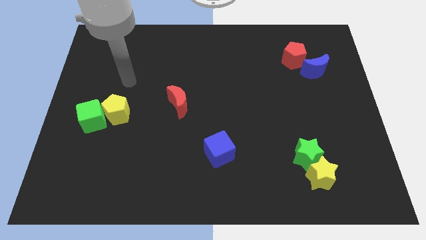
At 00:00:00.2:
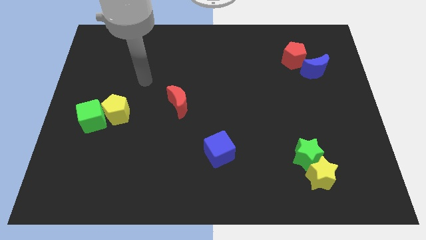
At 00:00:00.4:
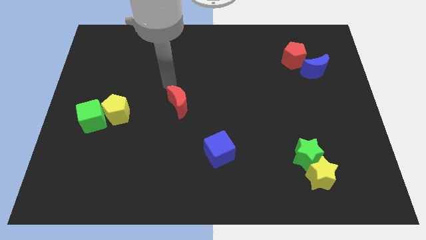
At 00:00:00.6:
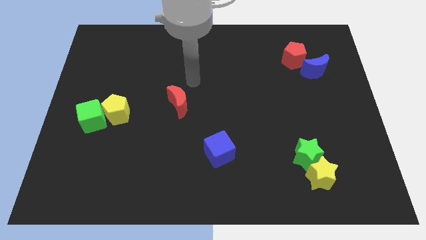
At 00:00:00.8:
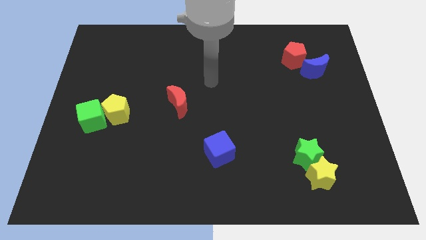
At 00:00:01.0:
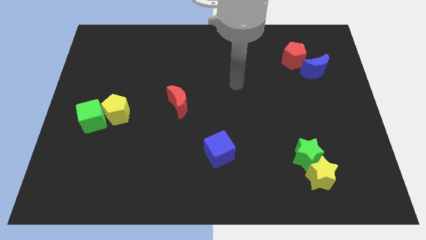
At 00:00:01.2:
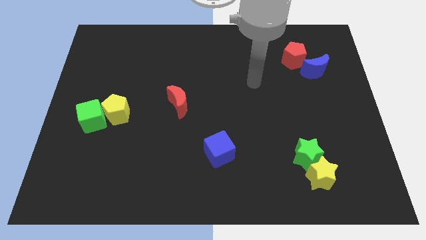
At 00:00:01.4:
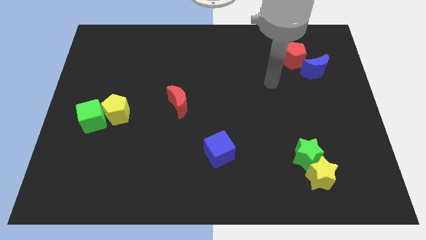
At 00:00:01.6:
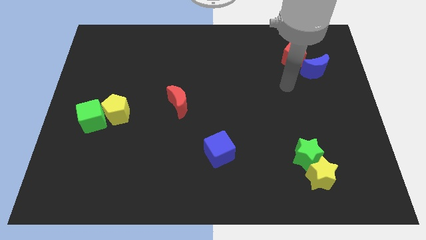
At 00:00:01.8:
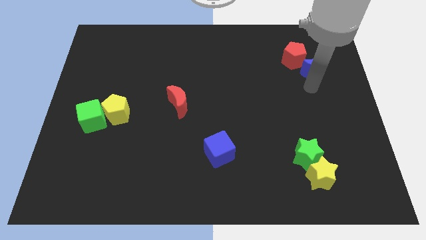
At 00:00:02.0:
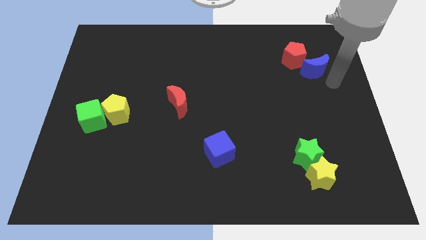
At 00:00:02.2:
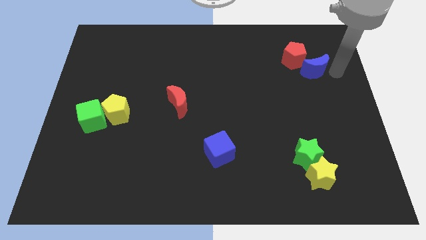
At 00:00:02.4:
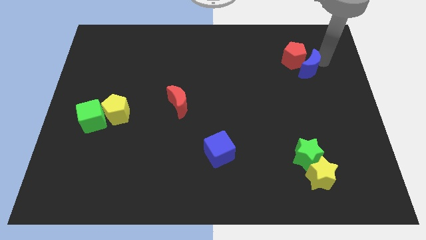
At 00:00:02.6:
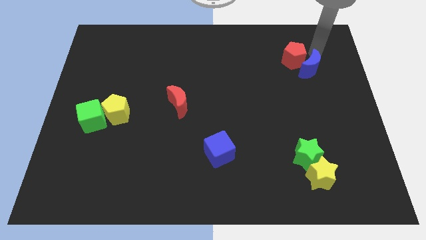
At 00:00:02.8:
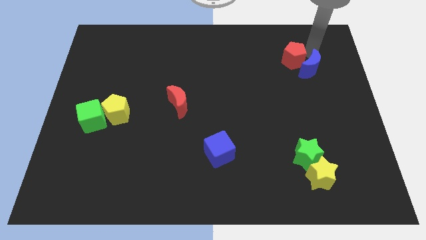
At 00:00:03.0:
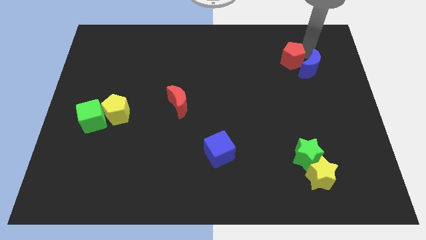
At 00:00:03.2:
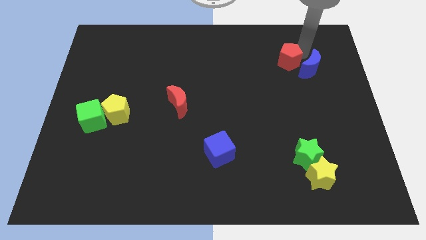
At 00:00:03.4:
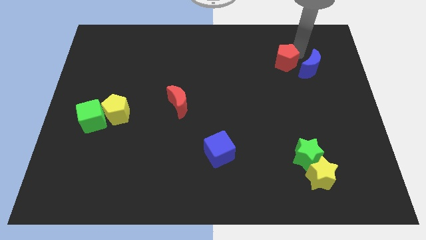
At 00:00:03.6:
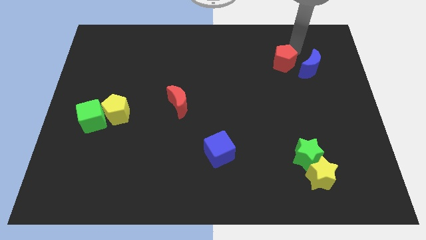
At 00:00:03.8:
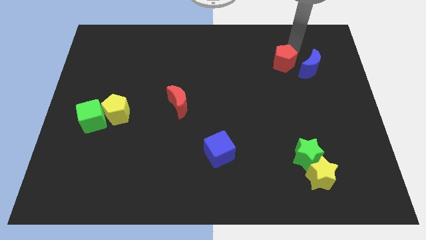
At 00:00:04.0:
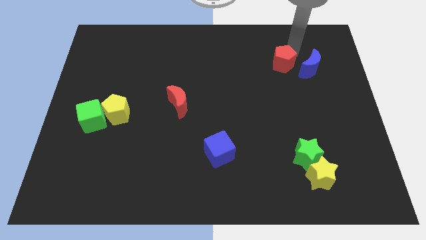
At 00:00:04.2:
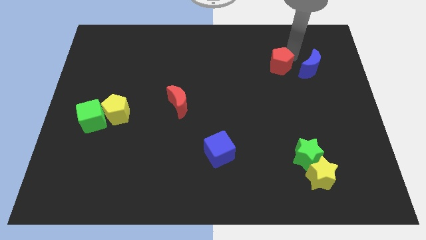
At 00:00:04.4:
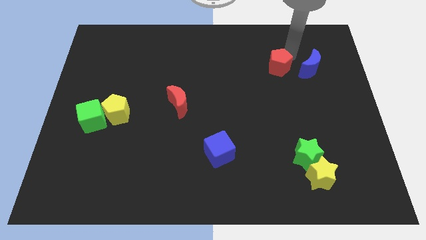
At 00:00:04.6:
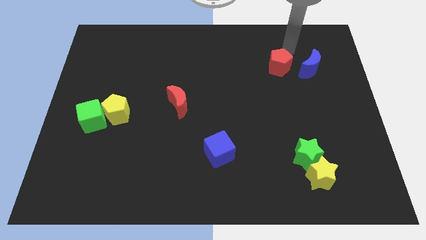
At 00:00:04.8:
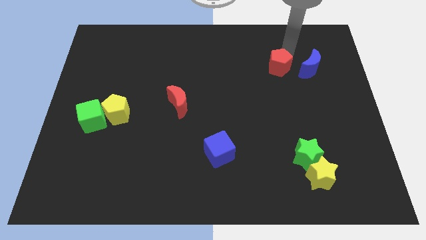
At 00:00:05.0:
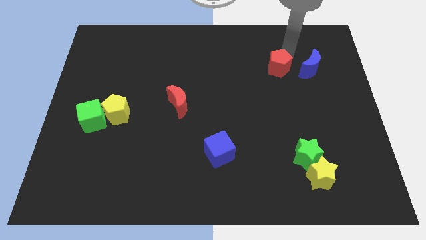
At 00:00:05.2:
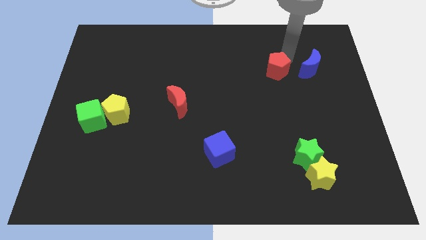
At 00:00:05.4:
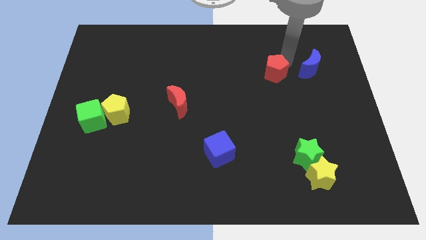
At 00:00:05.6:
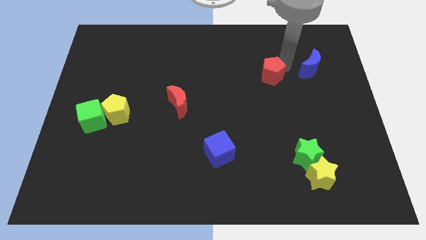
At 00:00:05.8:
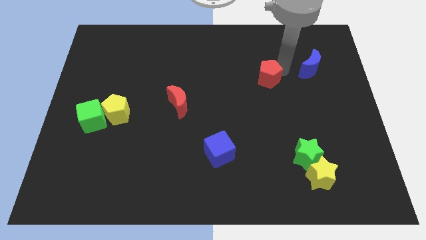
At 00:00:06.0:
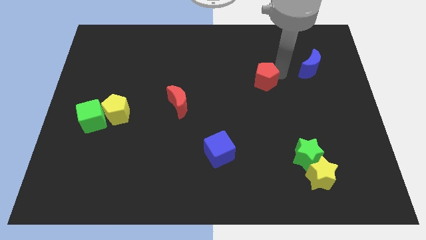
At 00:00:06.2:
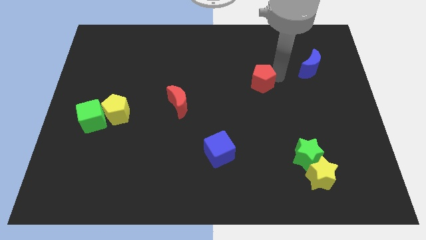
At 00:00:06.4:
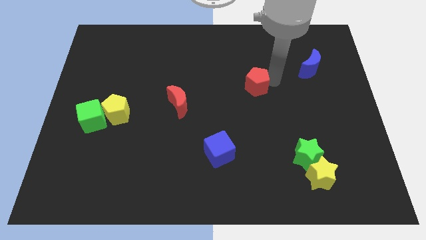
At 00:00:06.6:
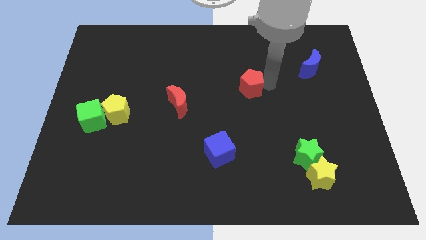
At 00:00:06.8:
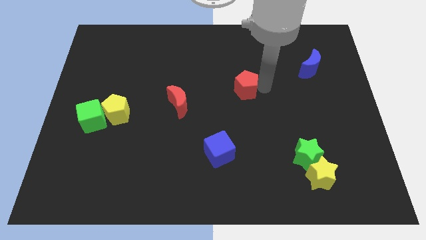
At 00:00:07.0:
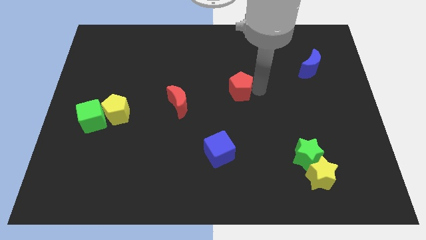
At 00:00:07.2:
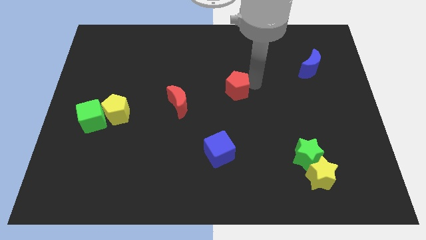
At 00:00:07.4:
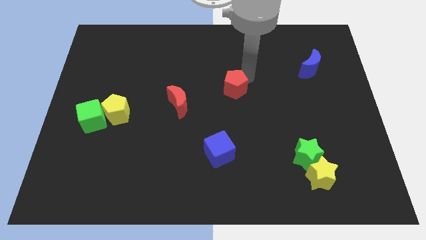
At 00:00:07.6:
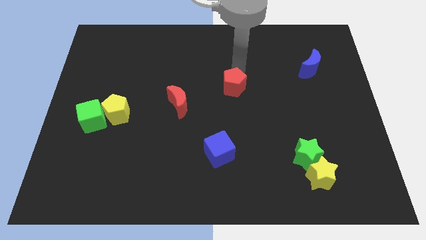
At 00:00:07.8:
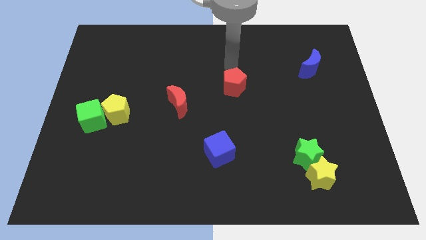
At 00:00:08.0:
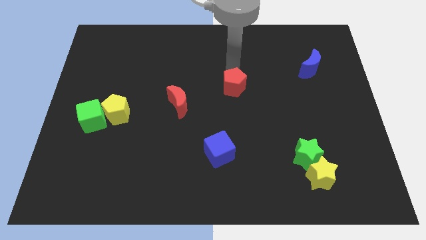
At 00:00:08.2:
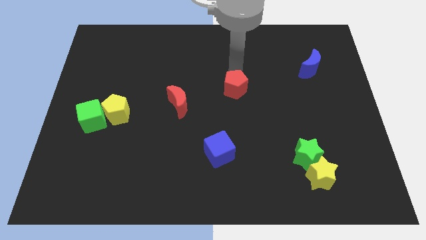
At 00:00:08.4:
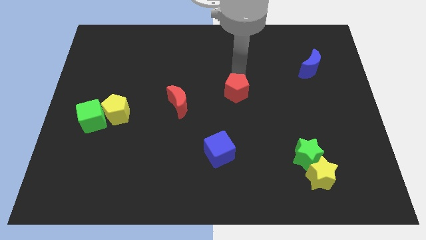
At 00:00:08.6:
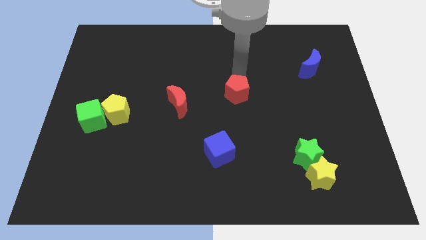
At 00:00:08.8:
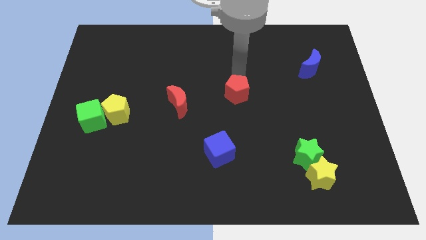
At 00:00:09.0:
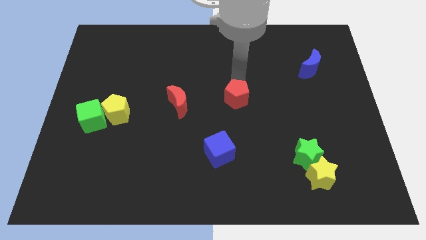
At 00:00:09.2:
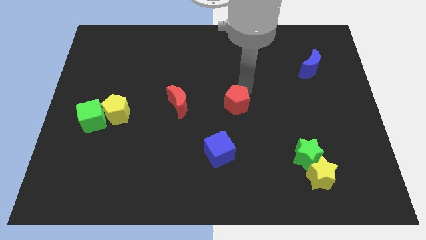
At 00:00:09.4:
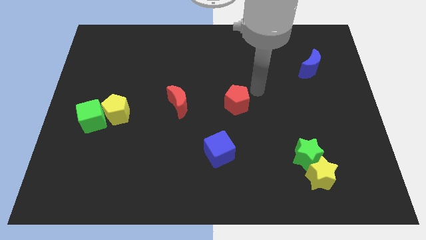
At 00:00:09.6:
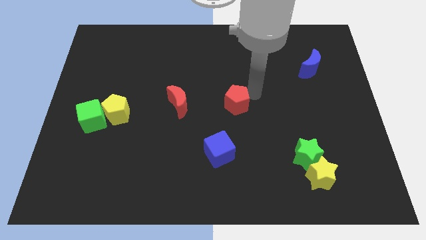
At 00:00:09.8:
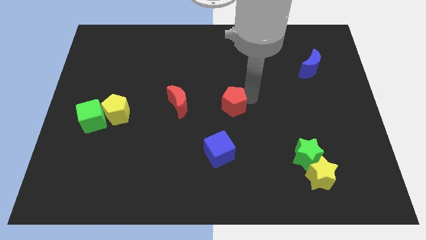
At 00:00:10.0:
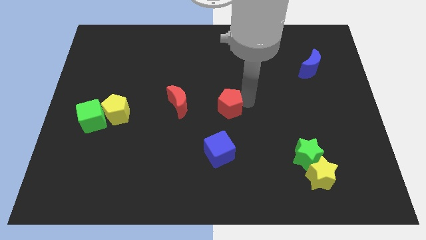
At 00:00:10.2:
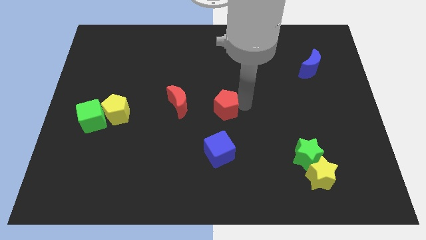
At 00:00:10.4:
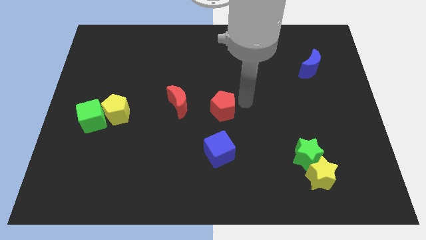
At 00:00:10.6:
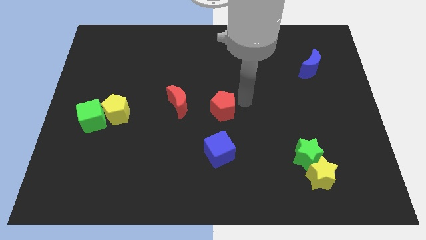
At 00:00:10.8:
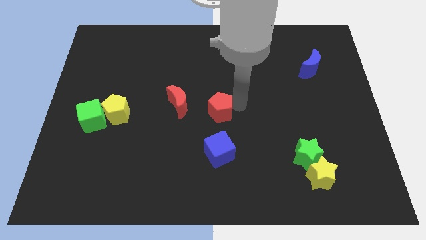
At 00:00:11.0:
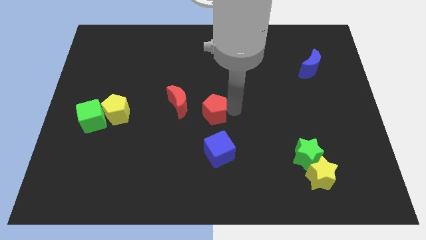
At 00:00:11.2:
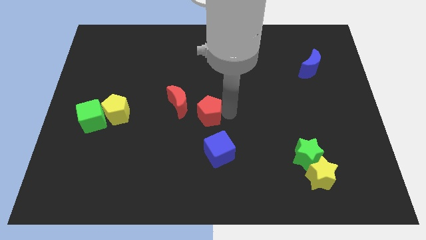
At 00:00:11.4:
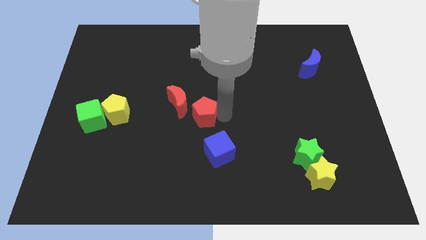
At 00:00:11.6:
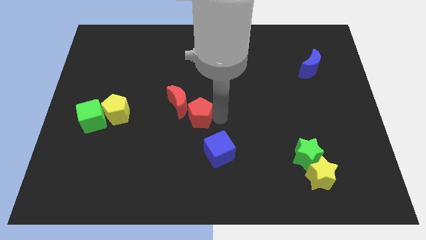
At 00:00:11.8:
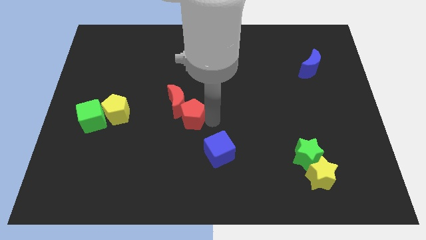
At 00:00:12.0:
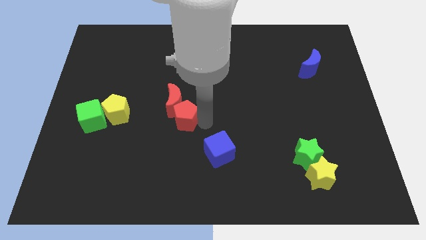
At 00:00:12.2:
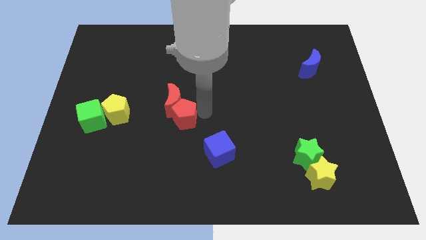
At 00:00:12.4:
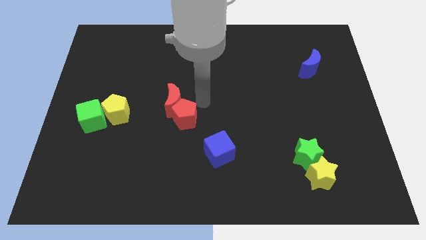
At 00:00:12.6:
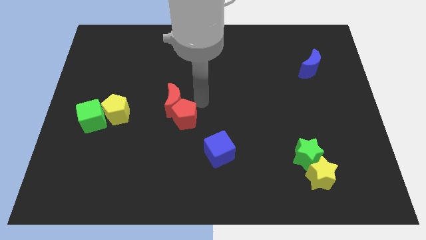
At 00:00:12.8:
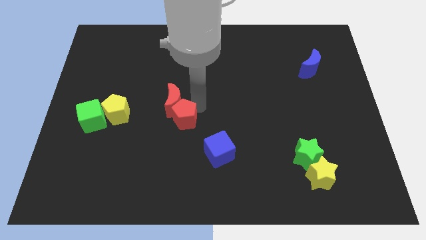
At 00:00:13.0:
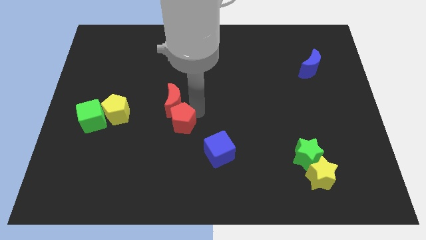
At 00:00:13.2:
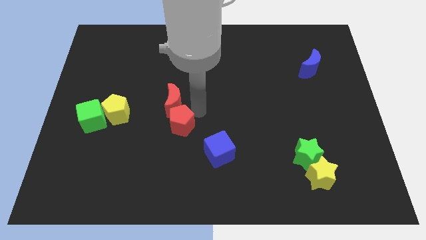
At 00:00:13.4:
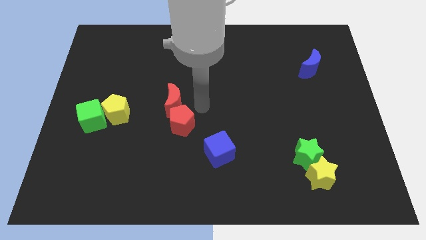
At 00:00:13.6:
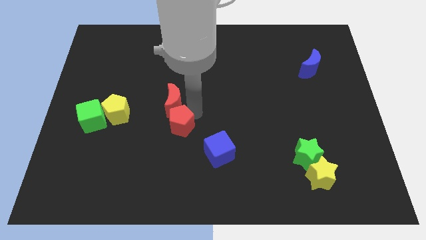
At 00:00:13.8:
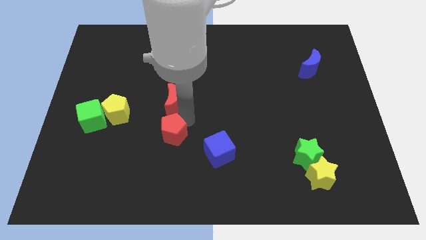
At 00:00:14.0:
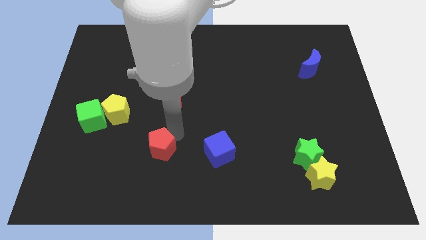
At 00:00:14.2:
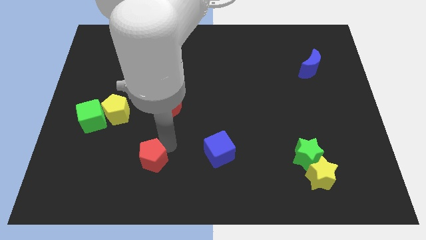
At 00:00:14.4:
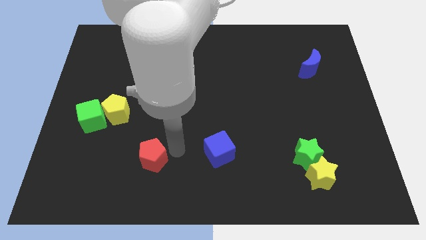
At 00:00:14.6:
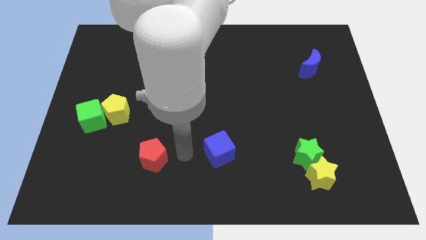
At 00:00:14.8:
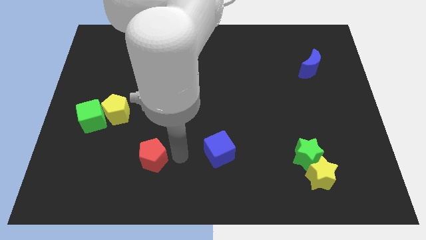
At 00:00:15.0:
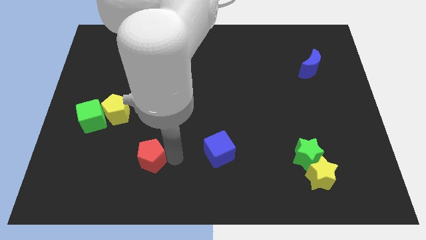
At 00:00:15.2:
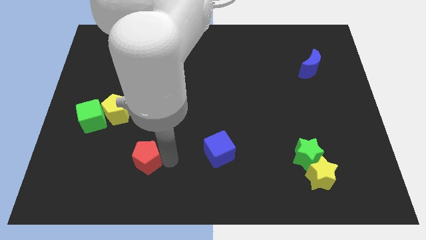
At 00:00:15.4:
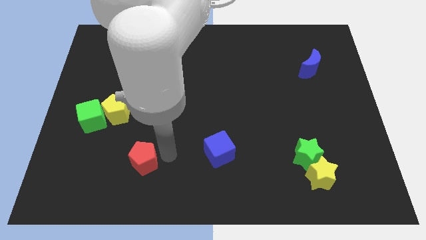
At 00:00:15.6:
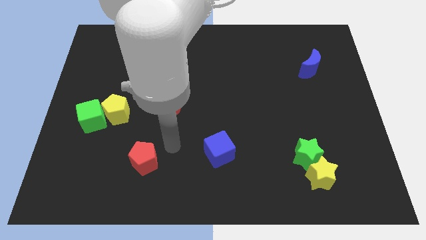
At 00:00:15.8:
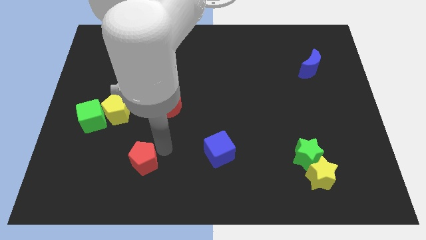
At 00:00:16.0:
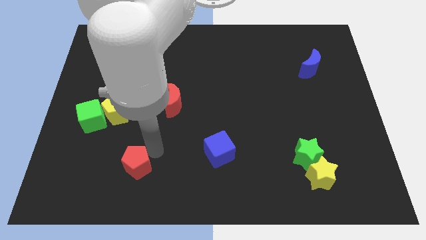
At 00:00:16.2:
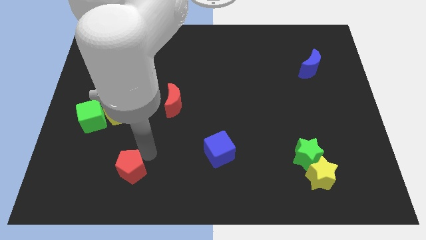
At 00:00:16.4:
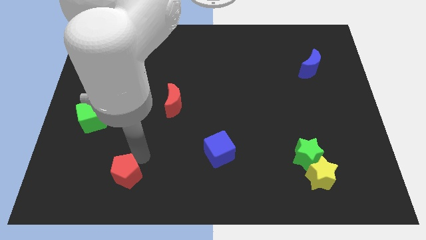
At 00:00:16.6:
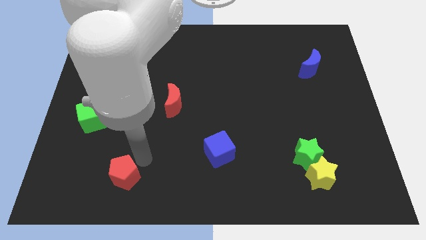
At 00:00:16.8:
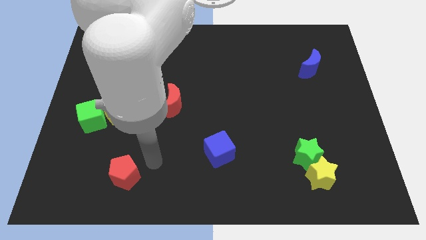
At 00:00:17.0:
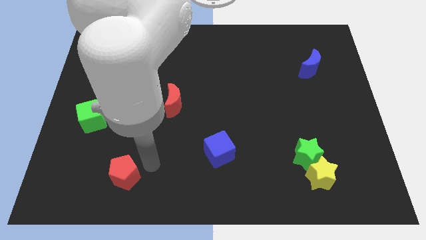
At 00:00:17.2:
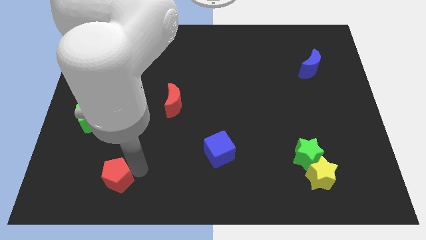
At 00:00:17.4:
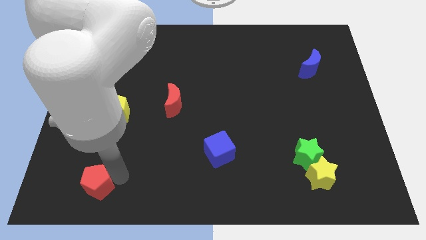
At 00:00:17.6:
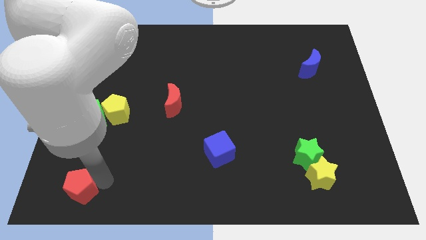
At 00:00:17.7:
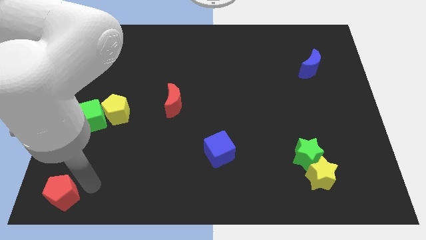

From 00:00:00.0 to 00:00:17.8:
put the red pentagon to the bottom left
